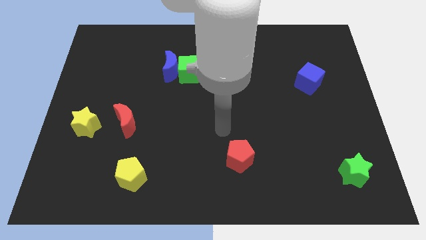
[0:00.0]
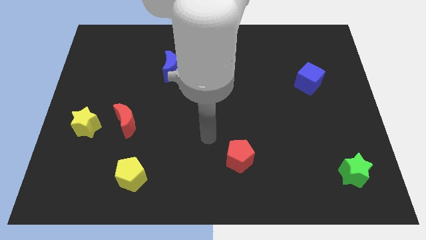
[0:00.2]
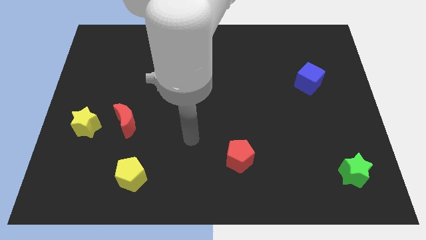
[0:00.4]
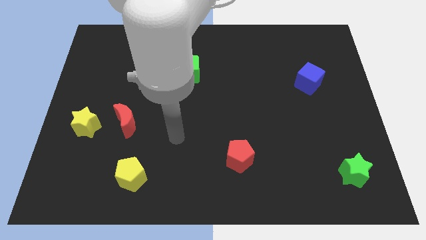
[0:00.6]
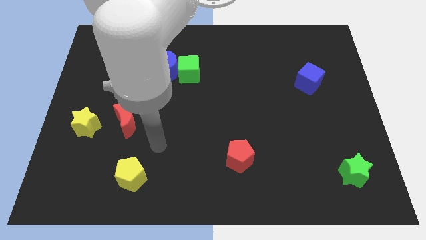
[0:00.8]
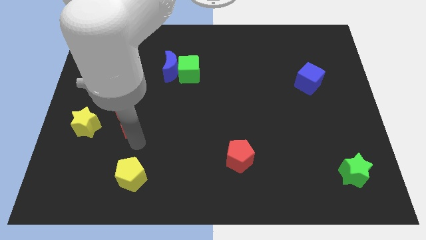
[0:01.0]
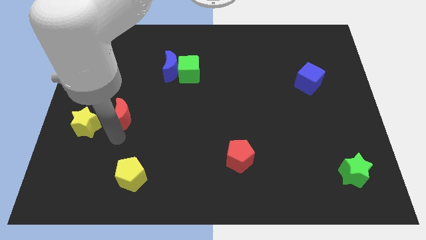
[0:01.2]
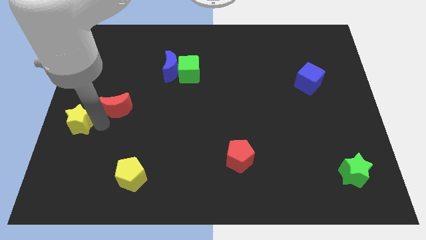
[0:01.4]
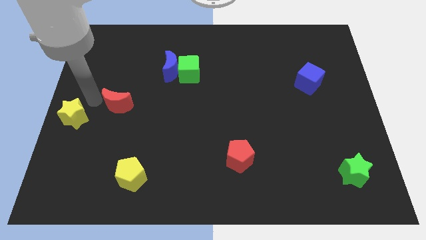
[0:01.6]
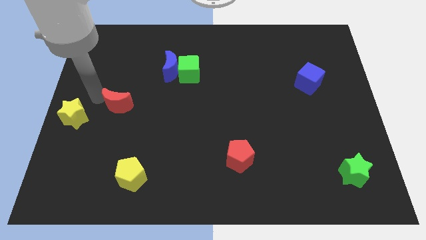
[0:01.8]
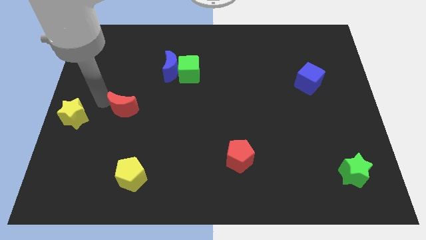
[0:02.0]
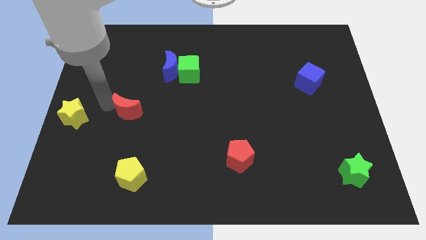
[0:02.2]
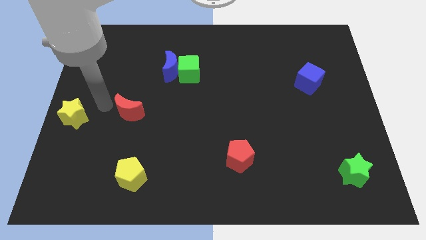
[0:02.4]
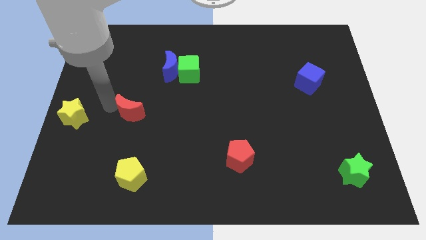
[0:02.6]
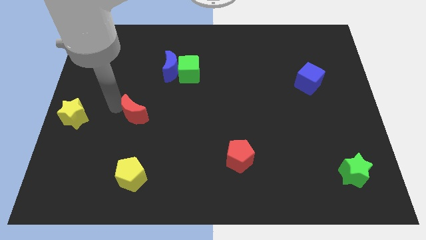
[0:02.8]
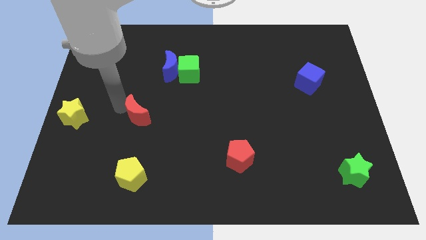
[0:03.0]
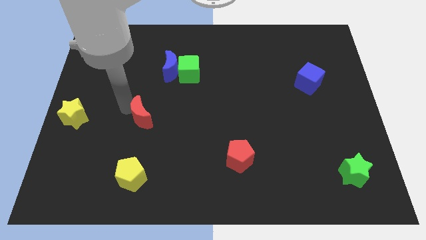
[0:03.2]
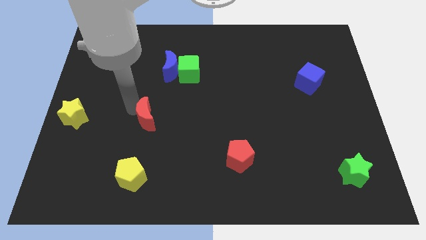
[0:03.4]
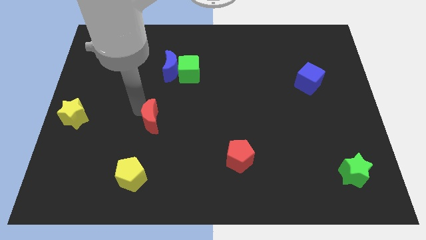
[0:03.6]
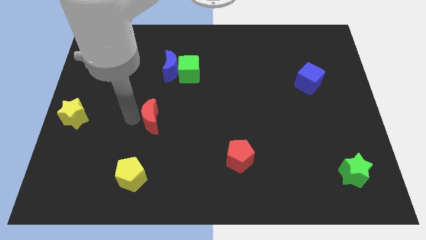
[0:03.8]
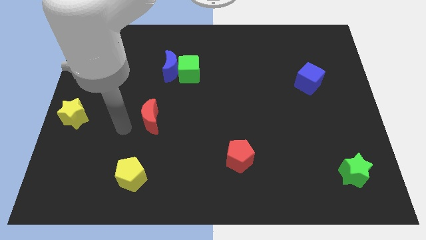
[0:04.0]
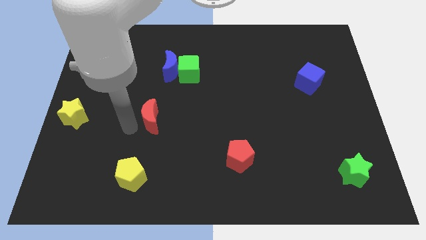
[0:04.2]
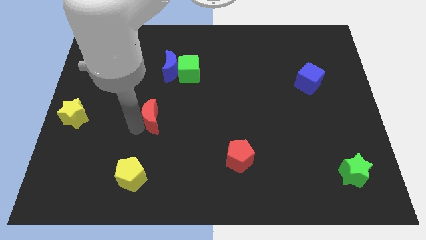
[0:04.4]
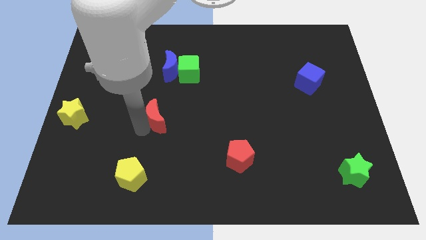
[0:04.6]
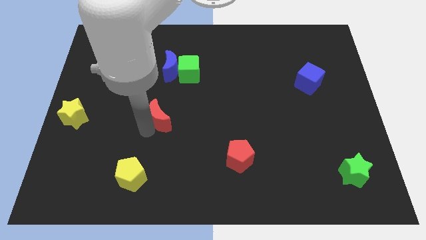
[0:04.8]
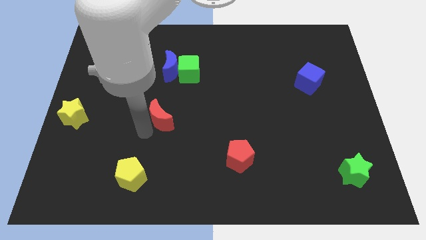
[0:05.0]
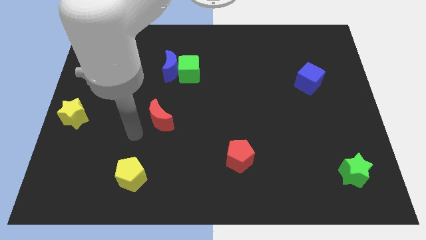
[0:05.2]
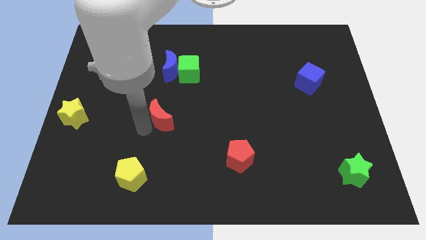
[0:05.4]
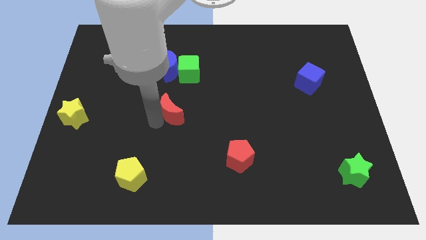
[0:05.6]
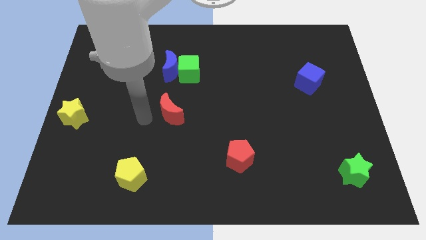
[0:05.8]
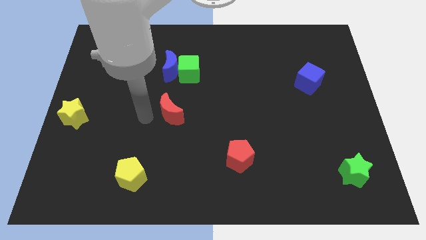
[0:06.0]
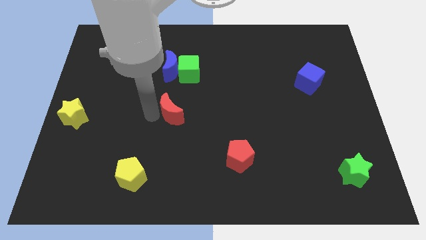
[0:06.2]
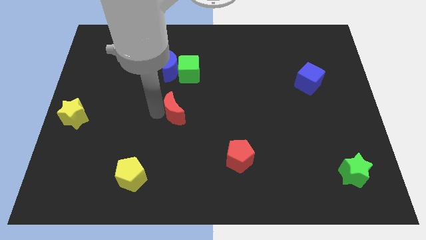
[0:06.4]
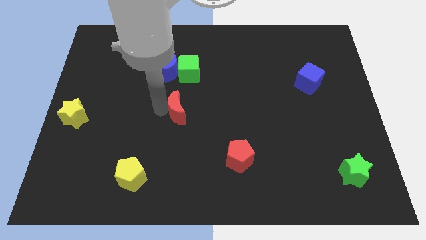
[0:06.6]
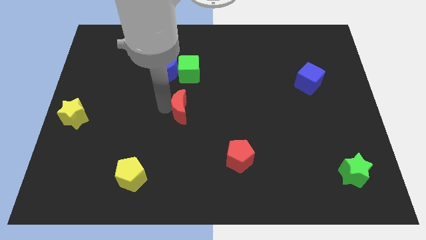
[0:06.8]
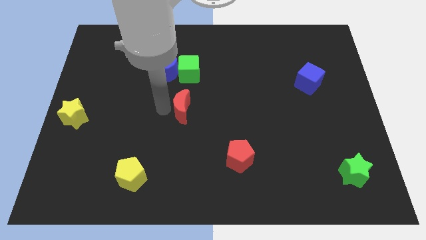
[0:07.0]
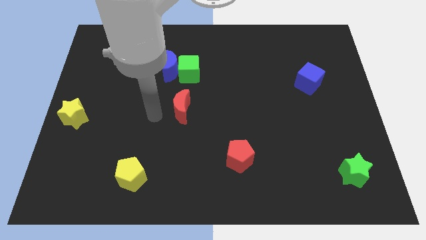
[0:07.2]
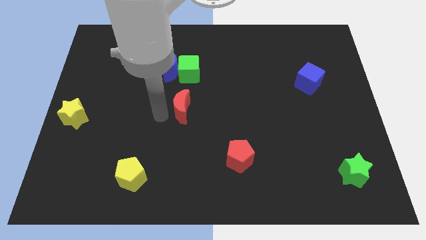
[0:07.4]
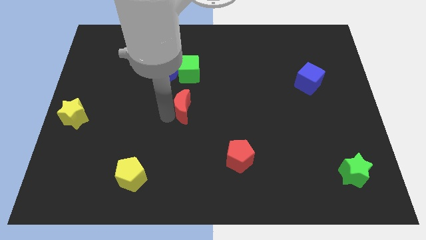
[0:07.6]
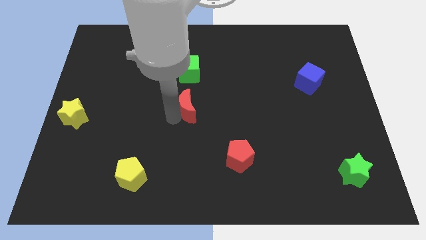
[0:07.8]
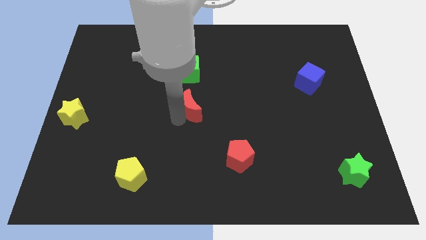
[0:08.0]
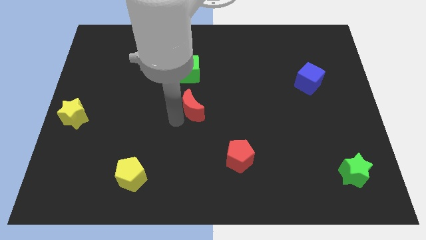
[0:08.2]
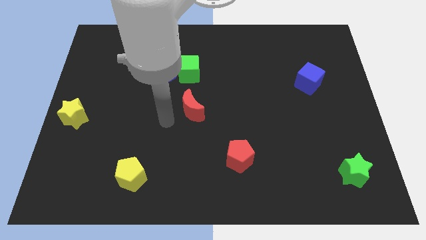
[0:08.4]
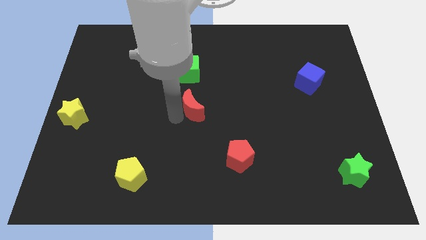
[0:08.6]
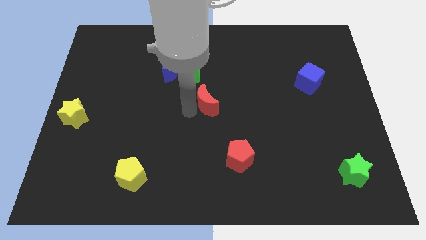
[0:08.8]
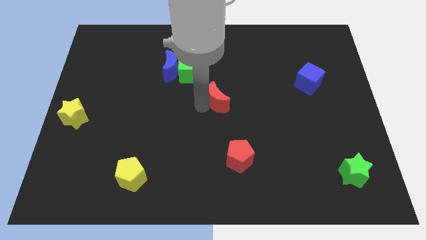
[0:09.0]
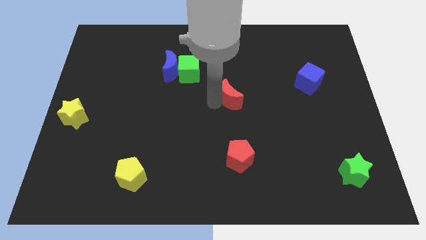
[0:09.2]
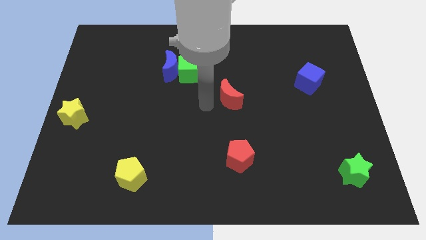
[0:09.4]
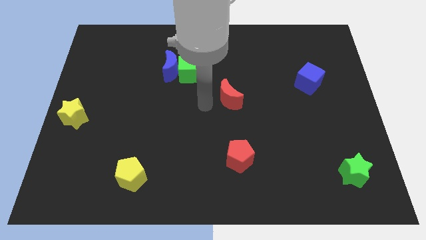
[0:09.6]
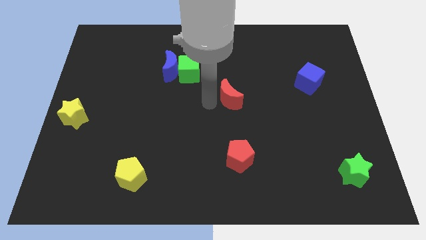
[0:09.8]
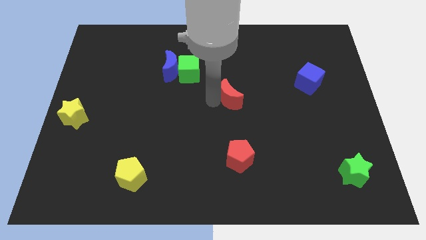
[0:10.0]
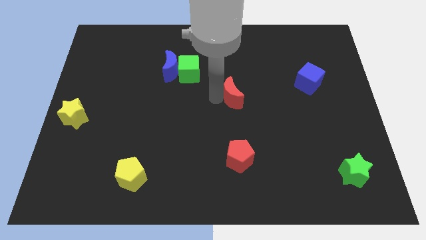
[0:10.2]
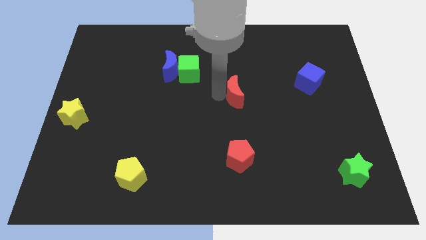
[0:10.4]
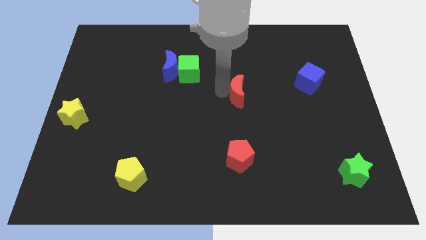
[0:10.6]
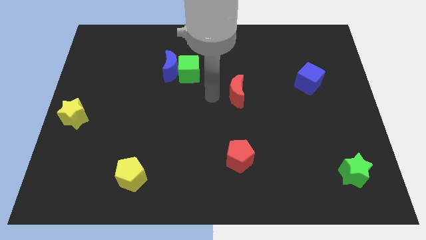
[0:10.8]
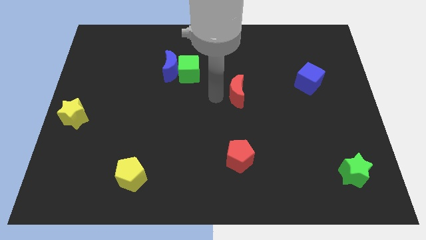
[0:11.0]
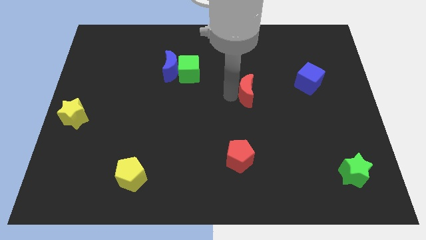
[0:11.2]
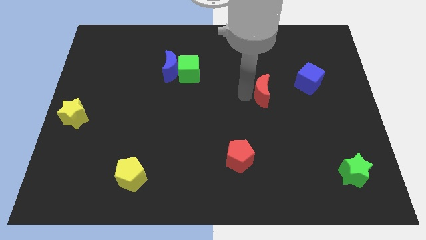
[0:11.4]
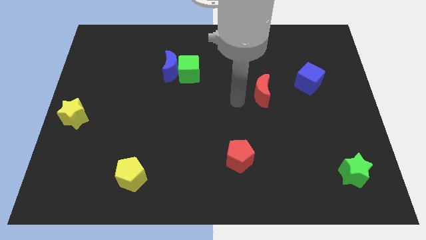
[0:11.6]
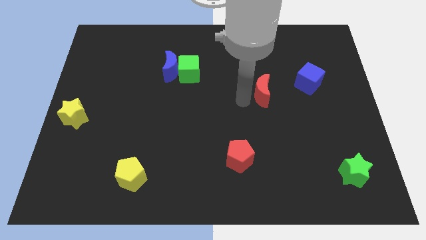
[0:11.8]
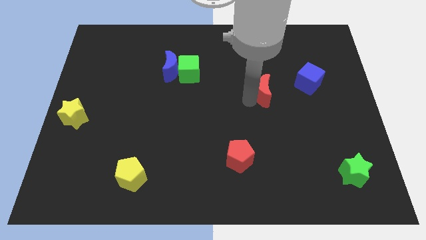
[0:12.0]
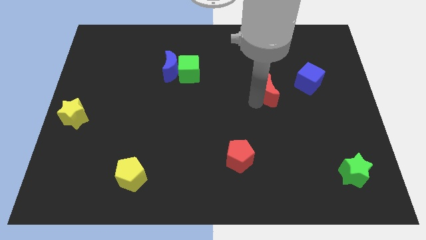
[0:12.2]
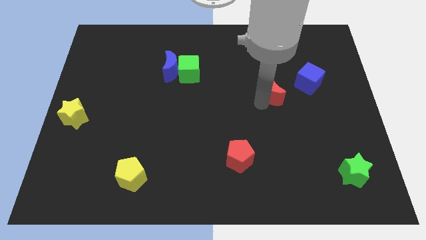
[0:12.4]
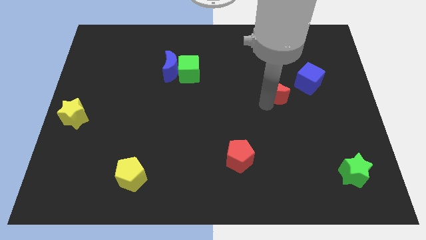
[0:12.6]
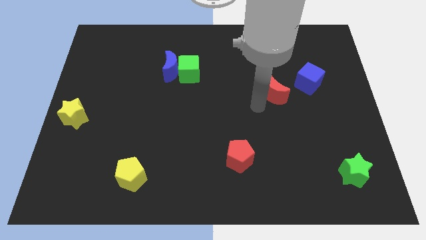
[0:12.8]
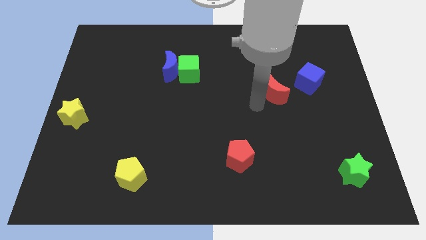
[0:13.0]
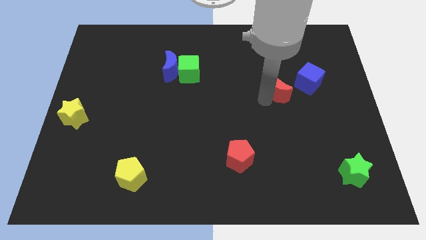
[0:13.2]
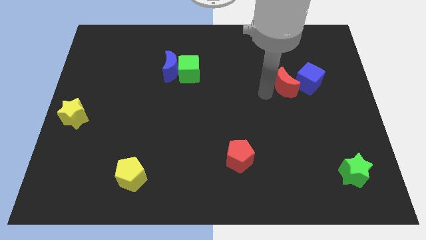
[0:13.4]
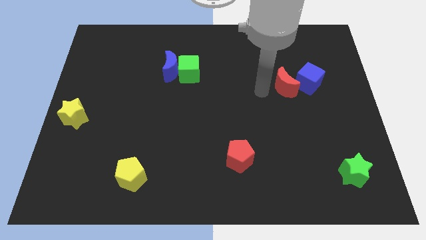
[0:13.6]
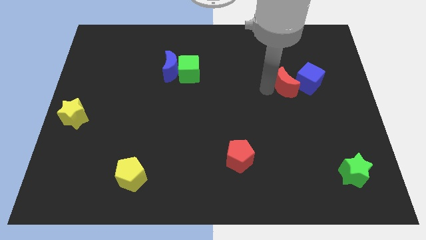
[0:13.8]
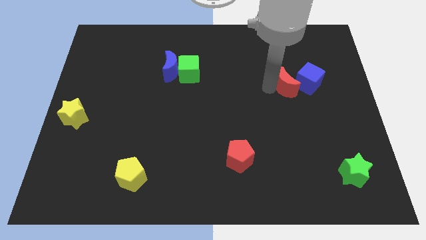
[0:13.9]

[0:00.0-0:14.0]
push the red moon next to the blue cube
